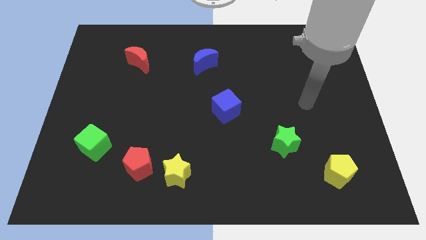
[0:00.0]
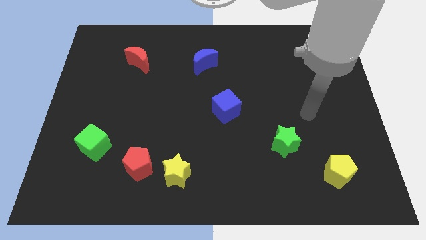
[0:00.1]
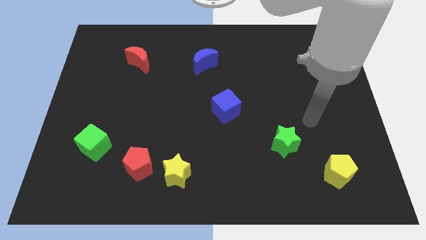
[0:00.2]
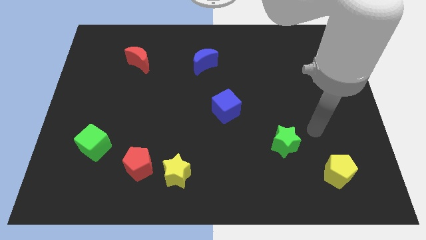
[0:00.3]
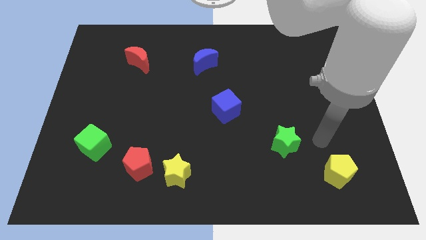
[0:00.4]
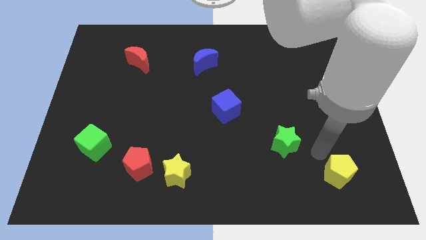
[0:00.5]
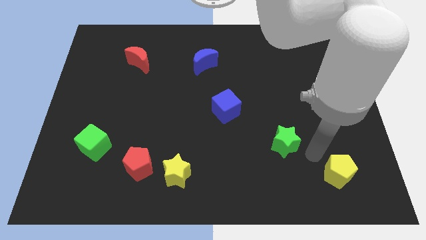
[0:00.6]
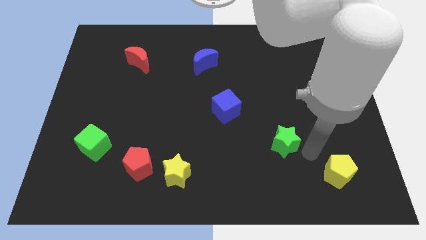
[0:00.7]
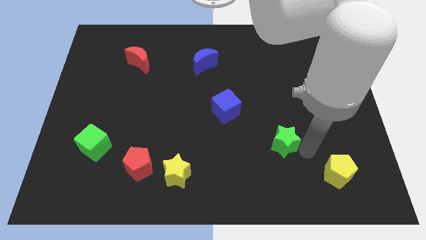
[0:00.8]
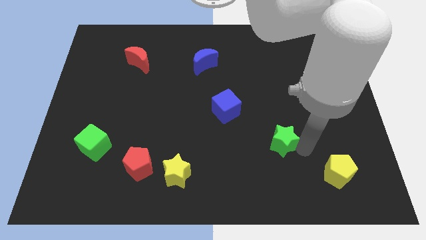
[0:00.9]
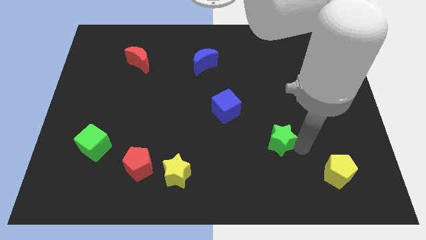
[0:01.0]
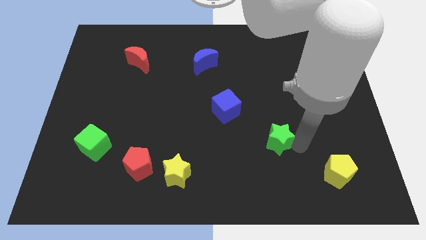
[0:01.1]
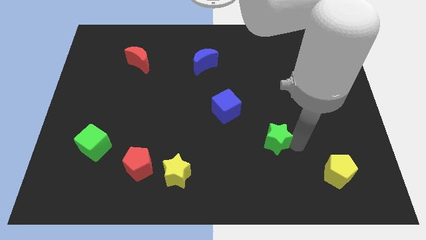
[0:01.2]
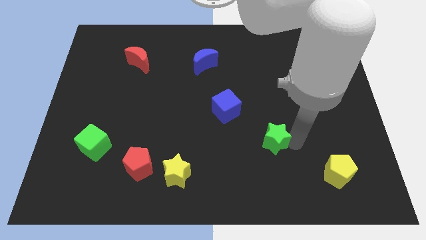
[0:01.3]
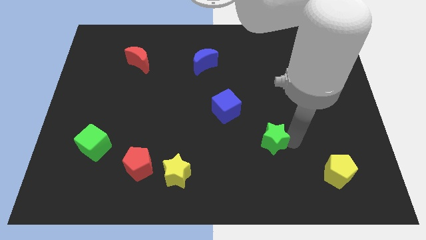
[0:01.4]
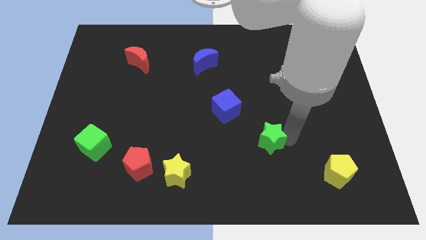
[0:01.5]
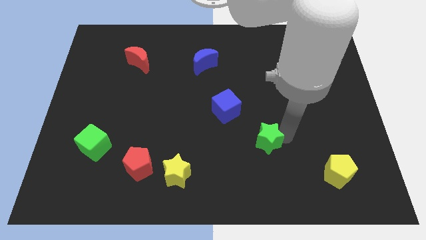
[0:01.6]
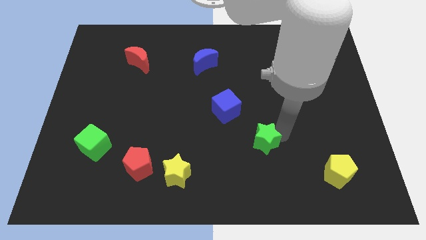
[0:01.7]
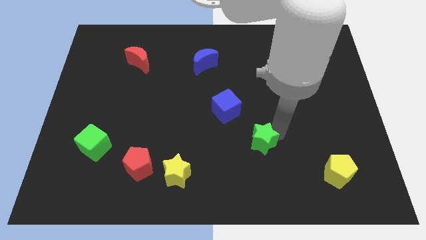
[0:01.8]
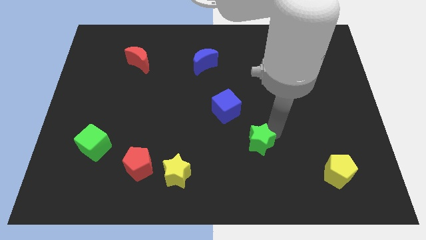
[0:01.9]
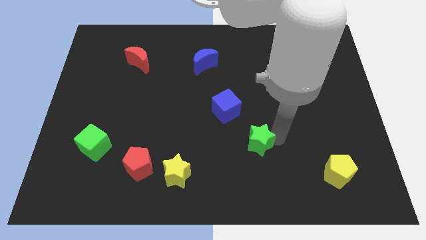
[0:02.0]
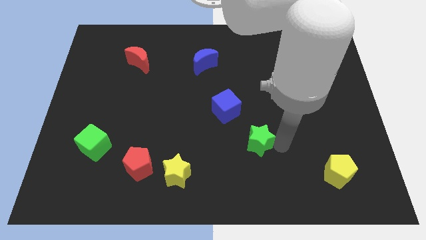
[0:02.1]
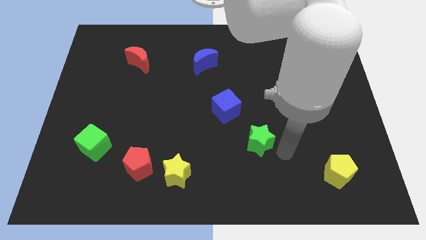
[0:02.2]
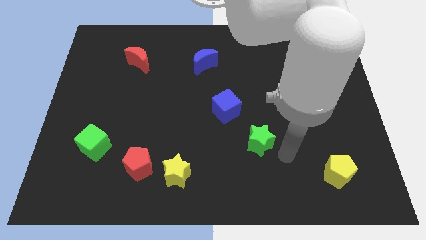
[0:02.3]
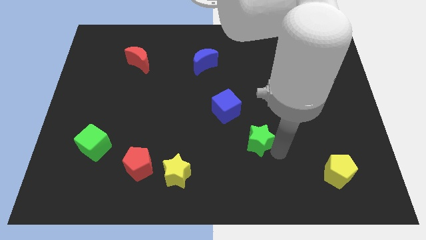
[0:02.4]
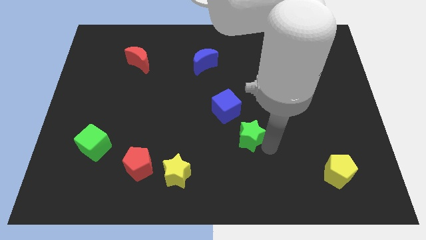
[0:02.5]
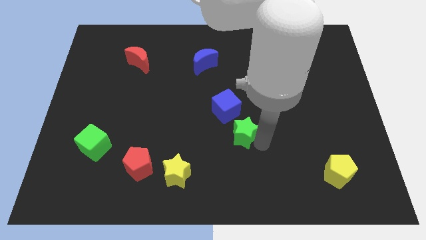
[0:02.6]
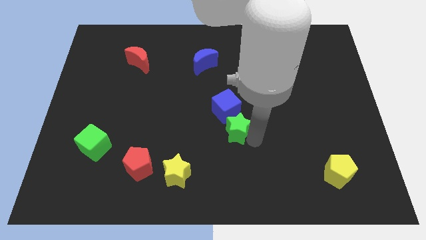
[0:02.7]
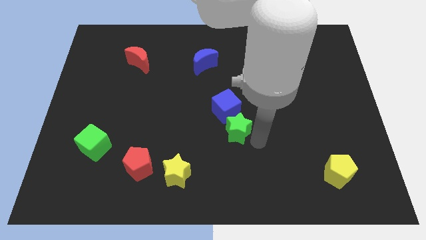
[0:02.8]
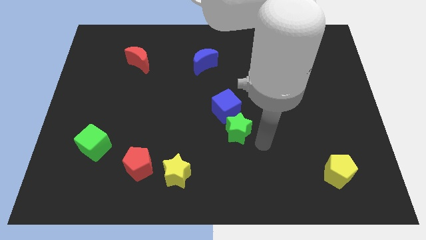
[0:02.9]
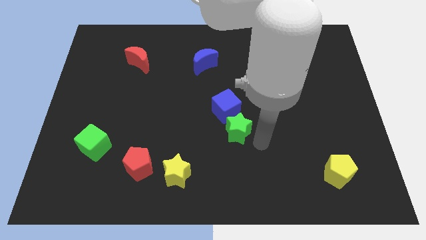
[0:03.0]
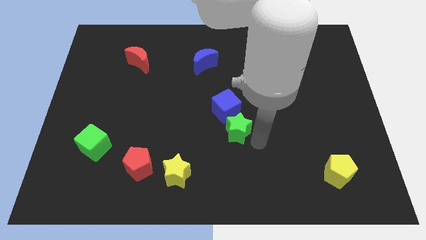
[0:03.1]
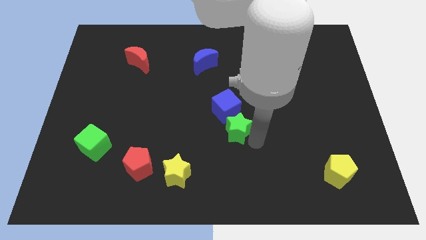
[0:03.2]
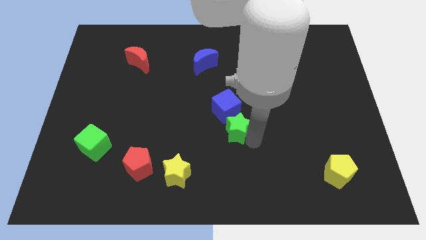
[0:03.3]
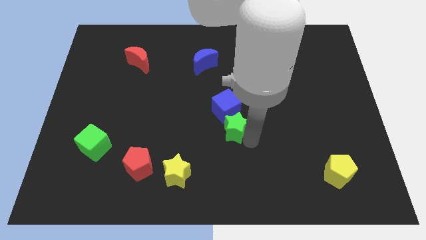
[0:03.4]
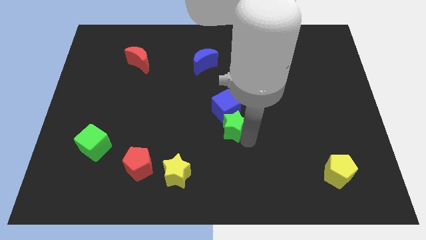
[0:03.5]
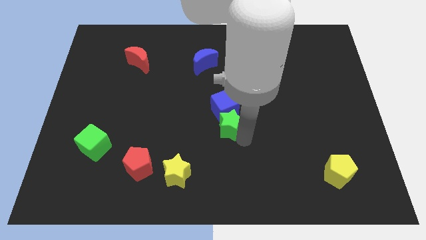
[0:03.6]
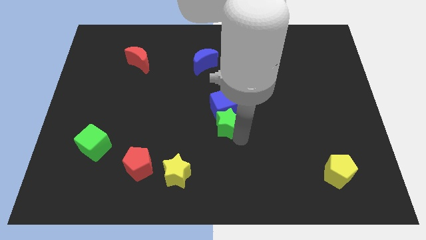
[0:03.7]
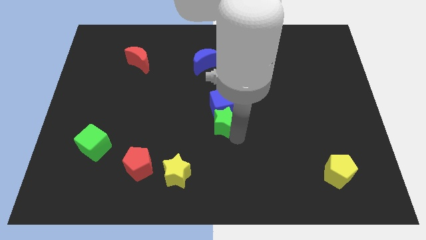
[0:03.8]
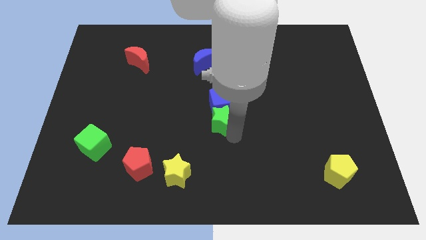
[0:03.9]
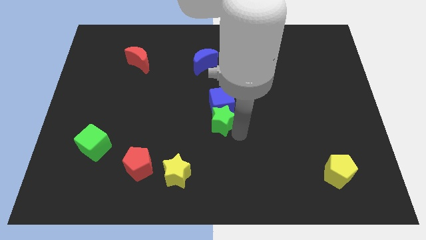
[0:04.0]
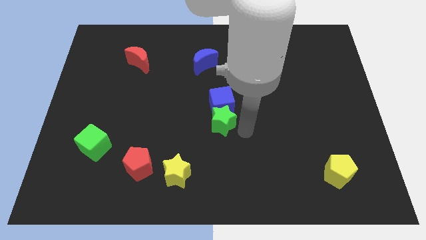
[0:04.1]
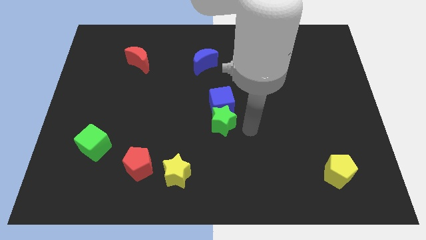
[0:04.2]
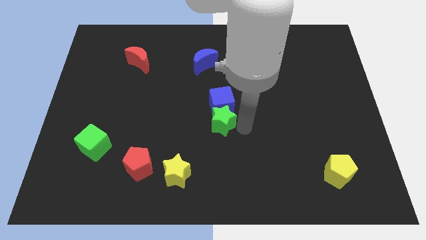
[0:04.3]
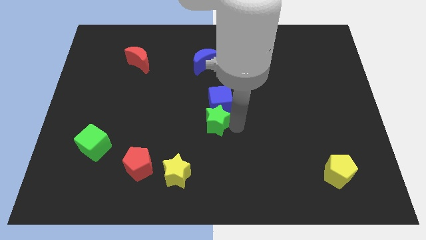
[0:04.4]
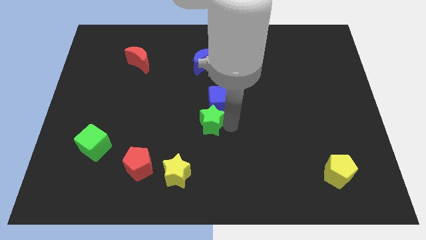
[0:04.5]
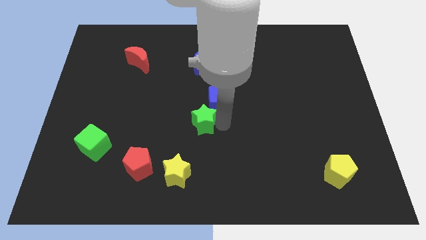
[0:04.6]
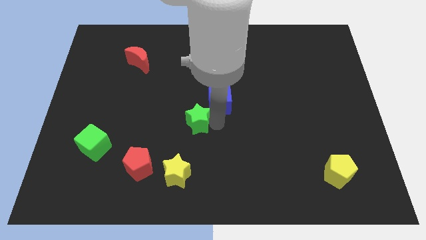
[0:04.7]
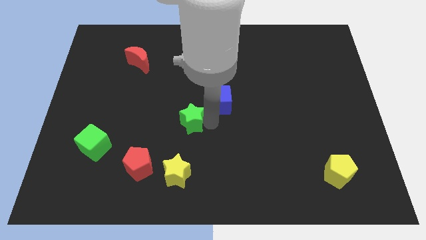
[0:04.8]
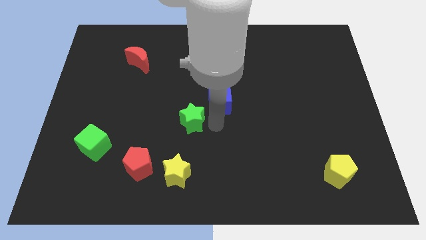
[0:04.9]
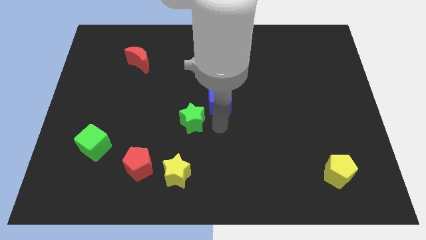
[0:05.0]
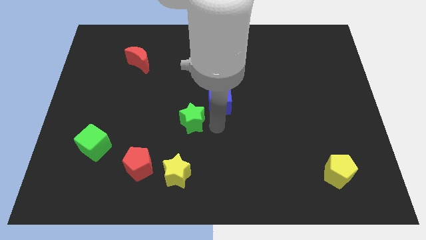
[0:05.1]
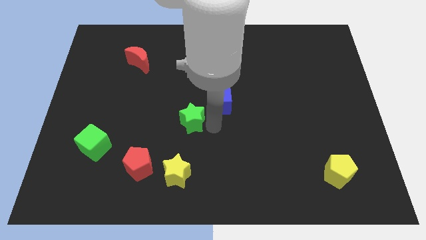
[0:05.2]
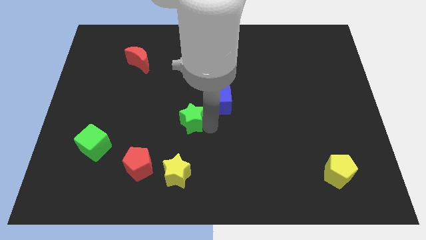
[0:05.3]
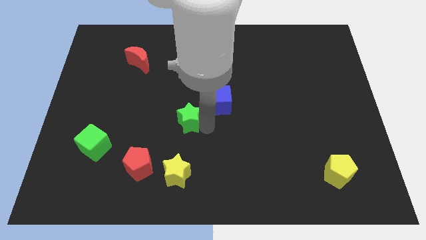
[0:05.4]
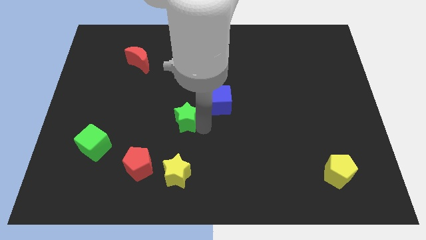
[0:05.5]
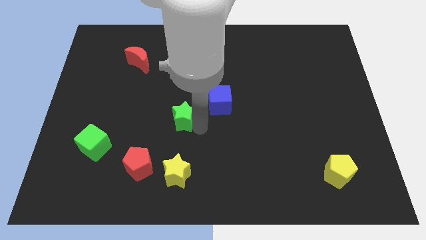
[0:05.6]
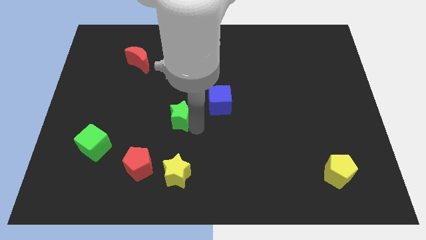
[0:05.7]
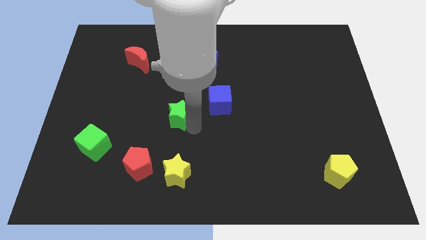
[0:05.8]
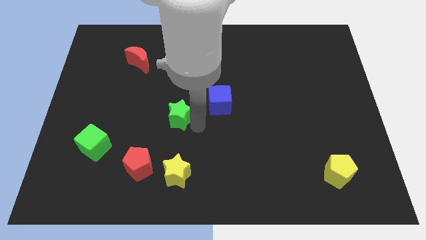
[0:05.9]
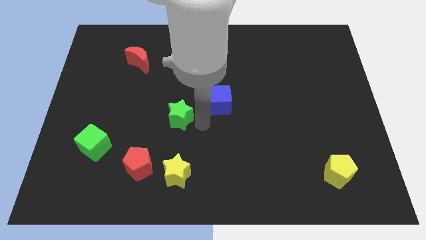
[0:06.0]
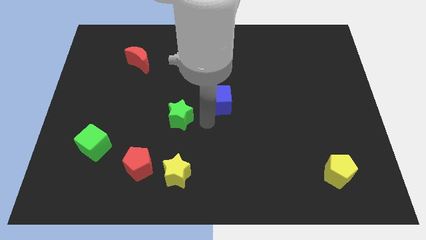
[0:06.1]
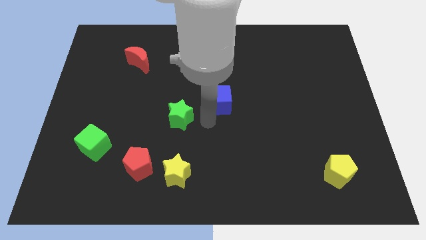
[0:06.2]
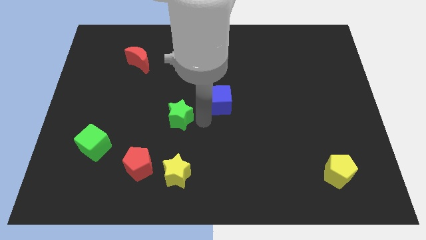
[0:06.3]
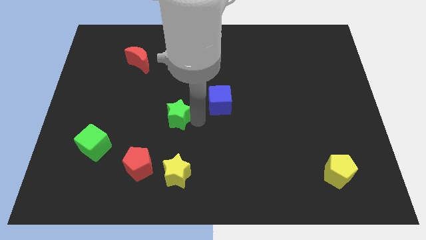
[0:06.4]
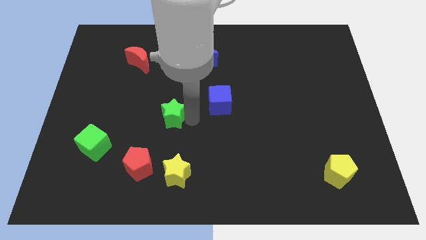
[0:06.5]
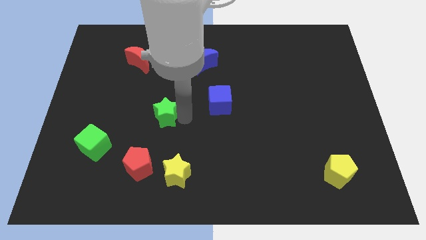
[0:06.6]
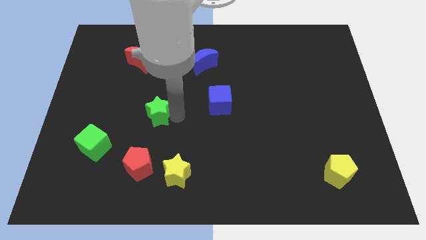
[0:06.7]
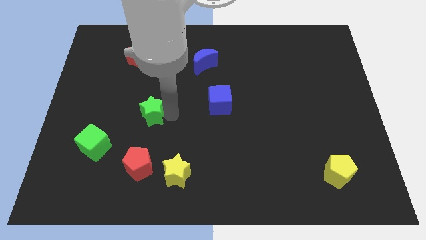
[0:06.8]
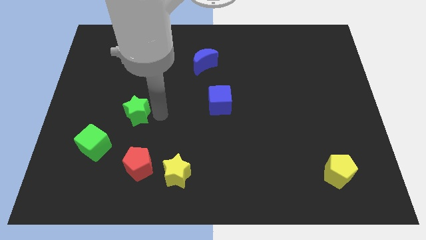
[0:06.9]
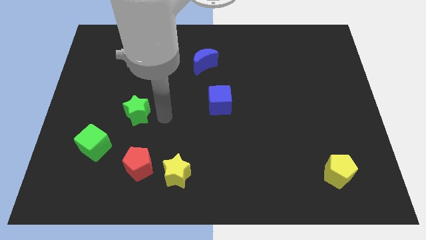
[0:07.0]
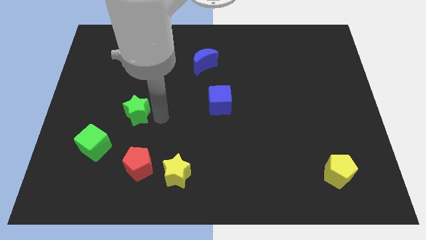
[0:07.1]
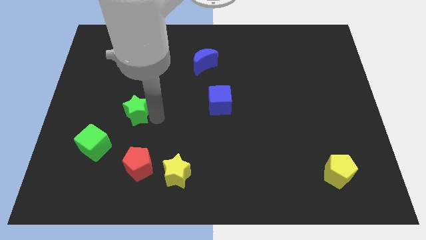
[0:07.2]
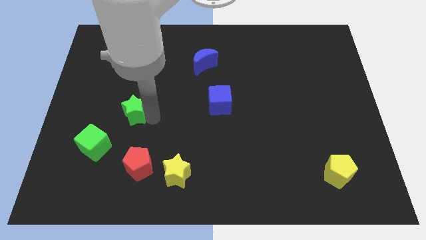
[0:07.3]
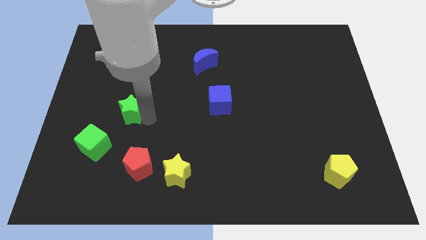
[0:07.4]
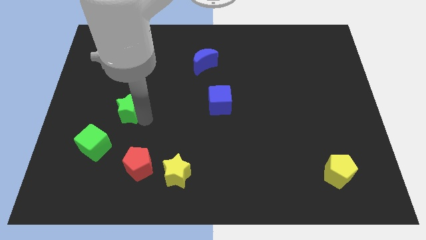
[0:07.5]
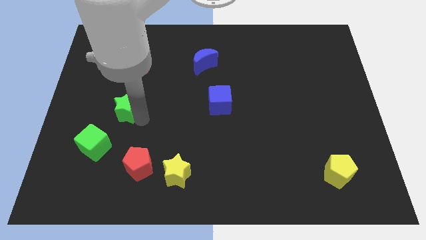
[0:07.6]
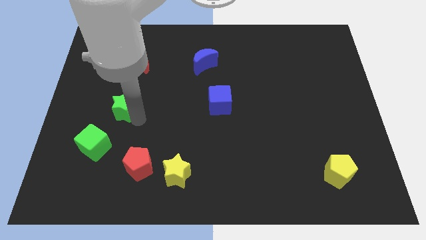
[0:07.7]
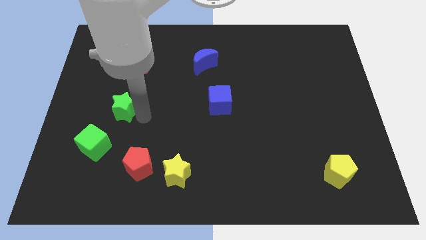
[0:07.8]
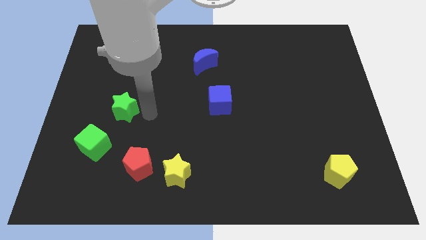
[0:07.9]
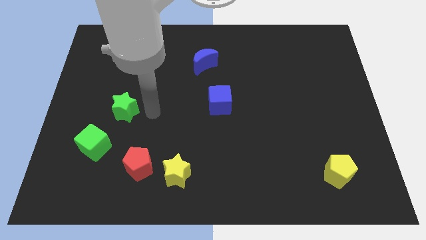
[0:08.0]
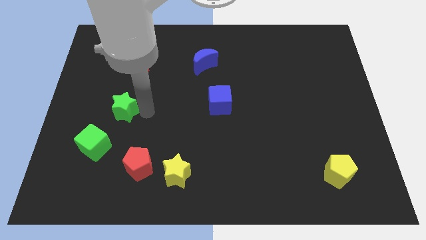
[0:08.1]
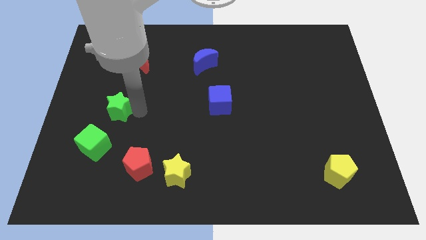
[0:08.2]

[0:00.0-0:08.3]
slide the green star to the top of the green cube
